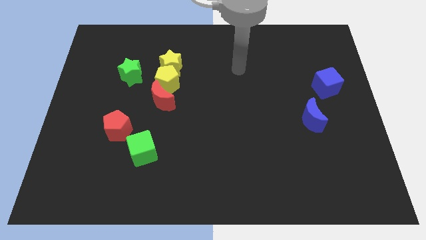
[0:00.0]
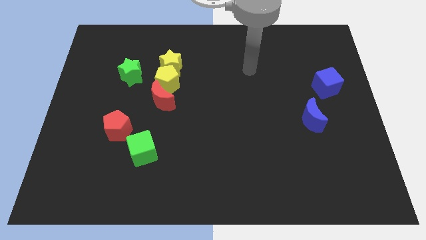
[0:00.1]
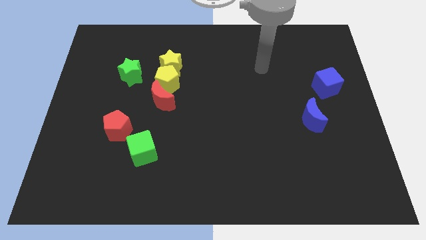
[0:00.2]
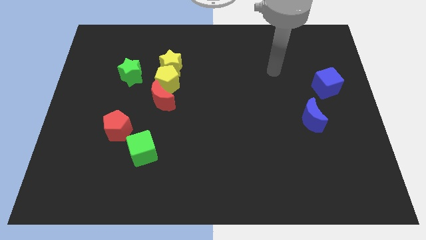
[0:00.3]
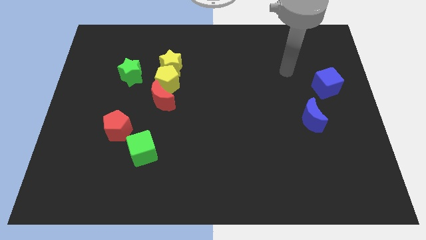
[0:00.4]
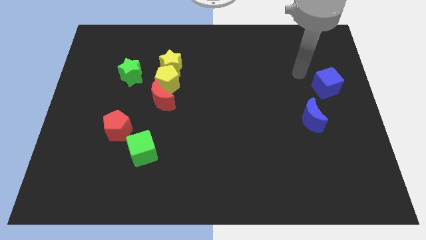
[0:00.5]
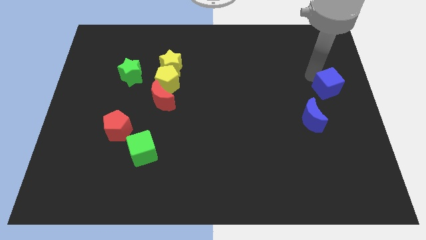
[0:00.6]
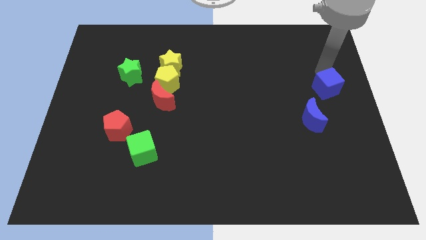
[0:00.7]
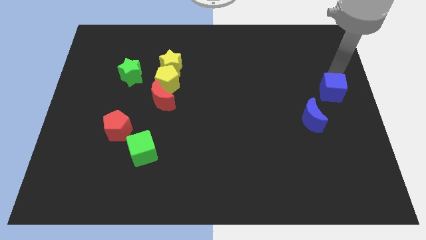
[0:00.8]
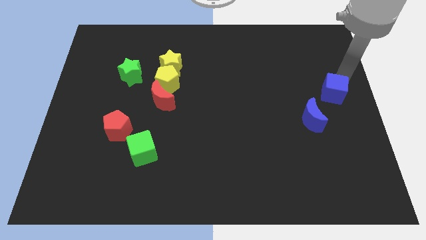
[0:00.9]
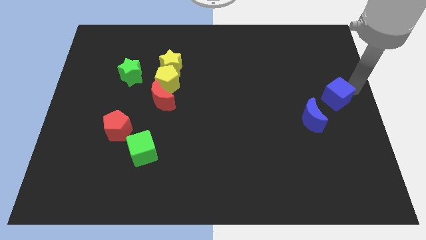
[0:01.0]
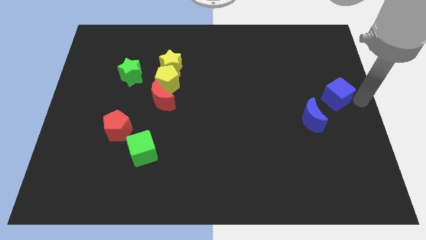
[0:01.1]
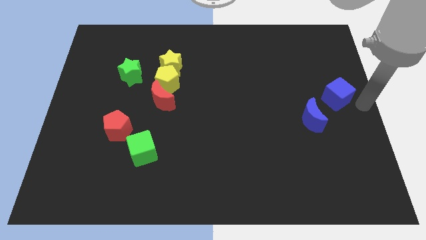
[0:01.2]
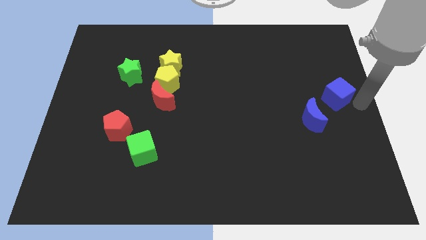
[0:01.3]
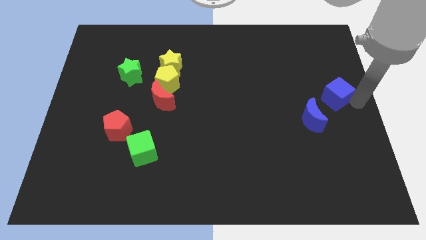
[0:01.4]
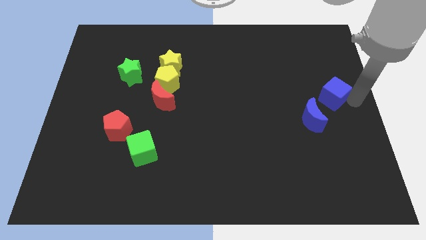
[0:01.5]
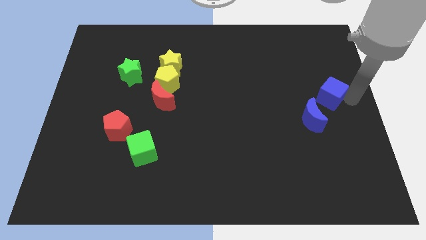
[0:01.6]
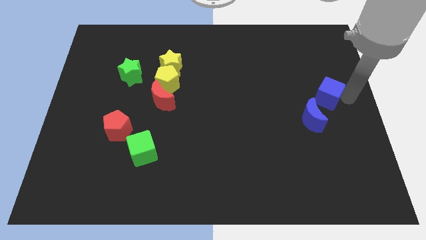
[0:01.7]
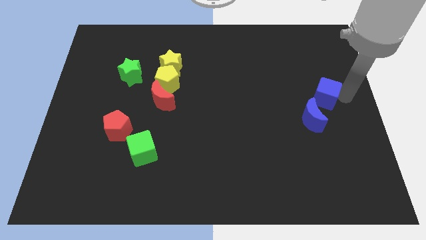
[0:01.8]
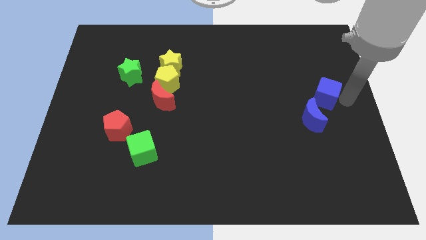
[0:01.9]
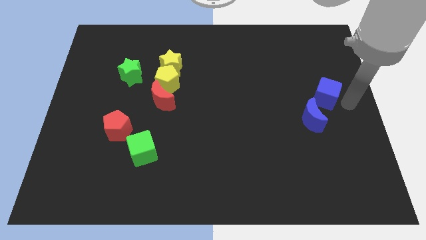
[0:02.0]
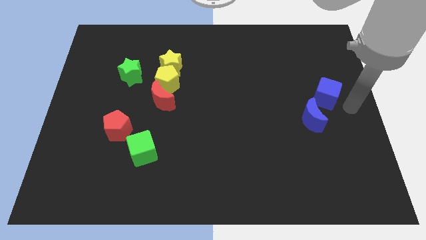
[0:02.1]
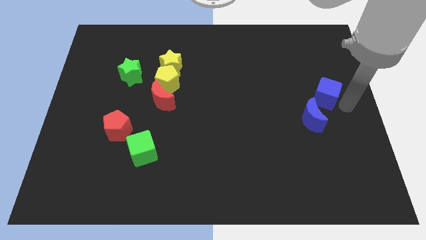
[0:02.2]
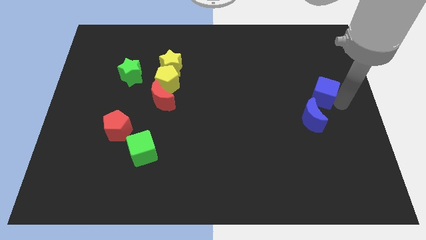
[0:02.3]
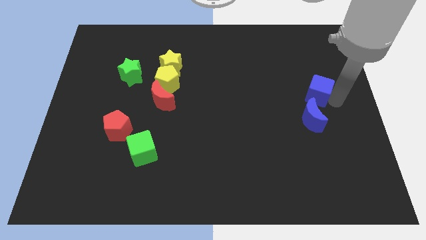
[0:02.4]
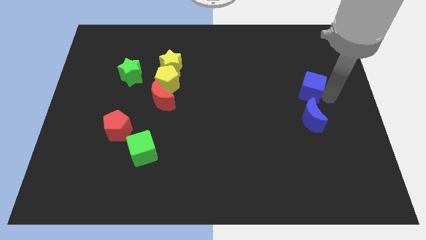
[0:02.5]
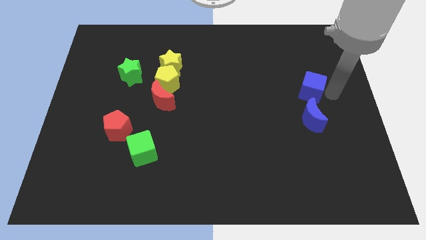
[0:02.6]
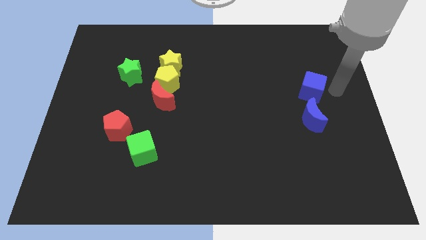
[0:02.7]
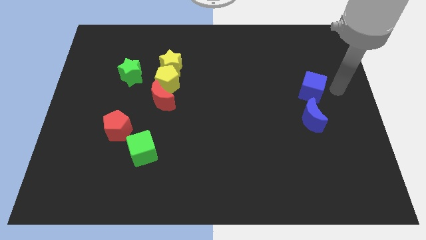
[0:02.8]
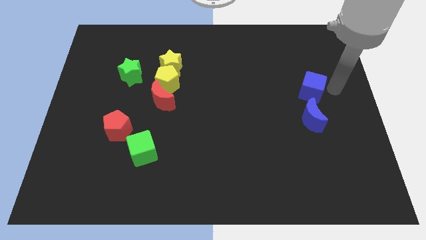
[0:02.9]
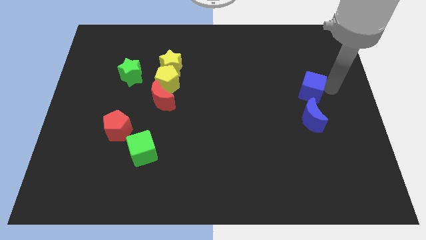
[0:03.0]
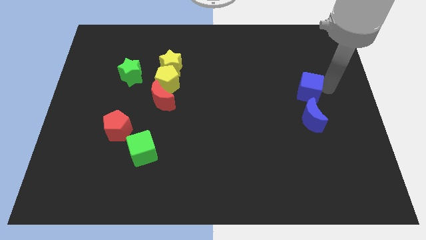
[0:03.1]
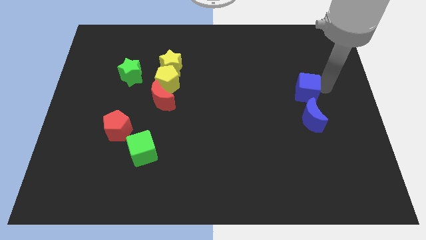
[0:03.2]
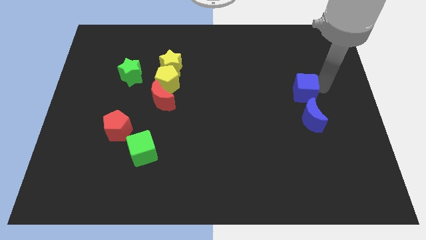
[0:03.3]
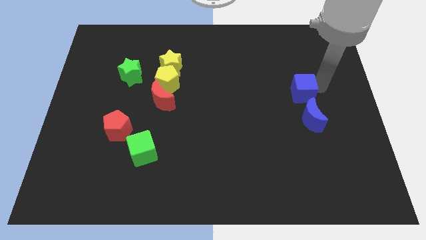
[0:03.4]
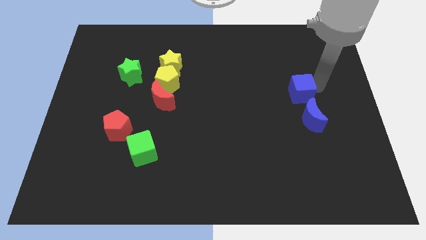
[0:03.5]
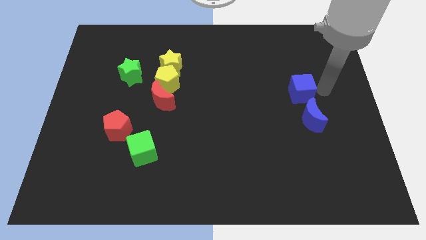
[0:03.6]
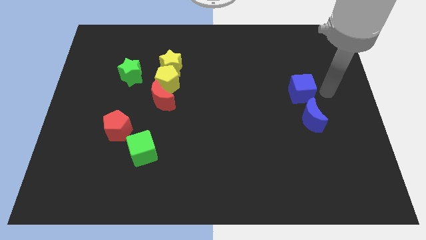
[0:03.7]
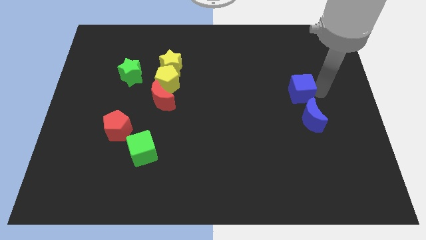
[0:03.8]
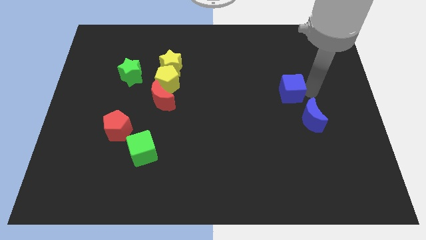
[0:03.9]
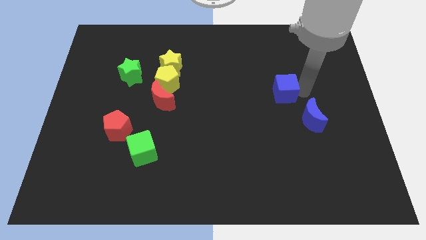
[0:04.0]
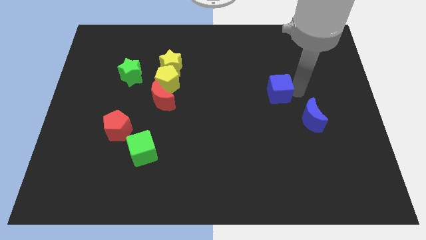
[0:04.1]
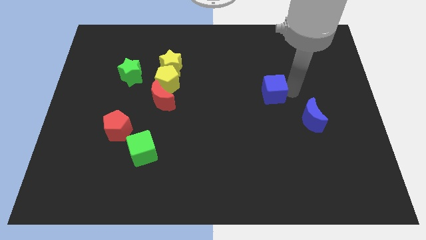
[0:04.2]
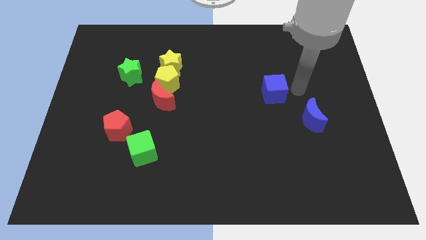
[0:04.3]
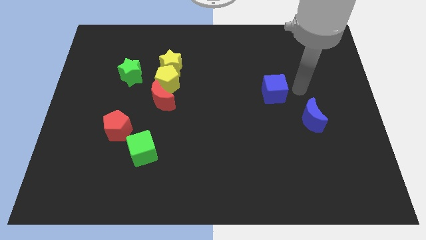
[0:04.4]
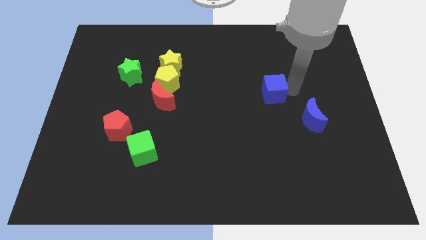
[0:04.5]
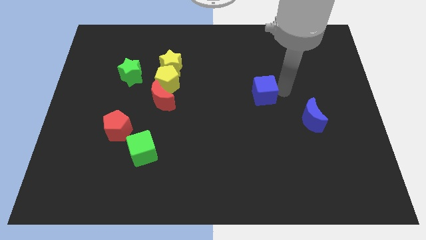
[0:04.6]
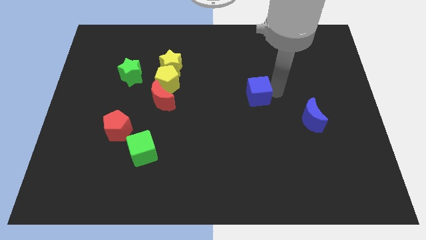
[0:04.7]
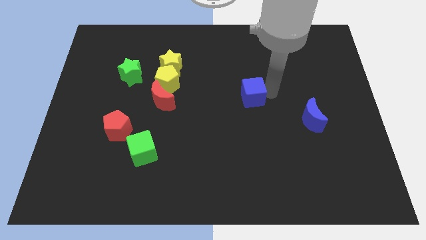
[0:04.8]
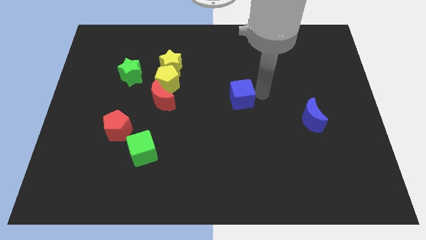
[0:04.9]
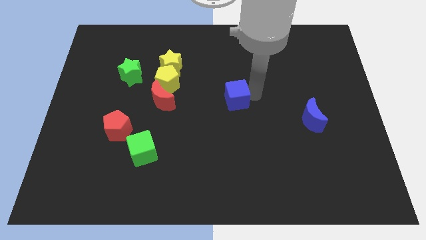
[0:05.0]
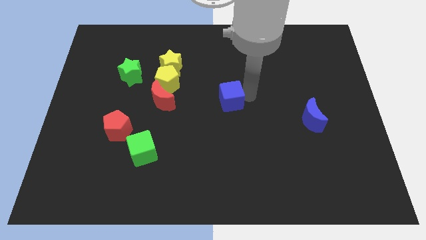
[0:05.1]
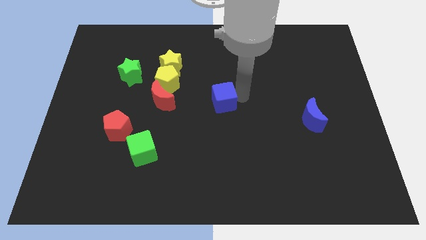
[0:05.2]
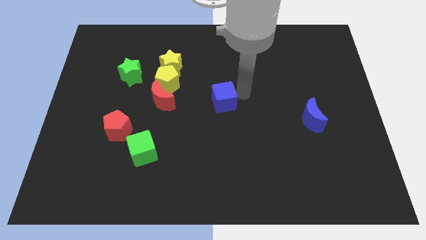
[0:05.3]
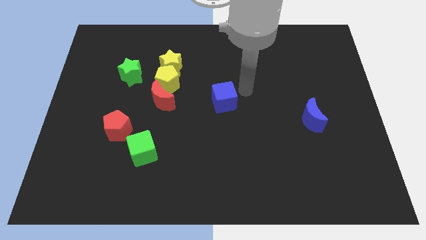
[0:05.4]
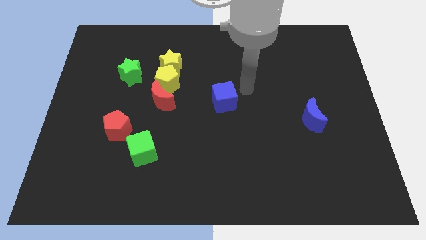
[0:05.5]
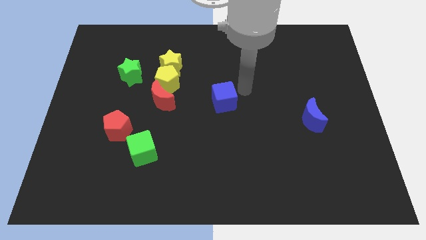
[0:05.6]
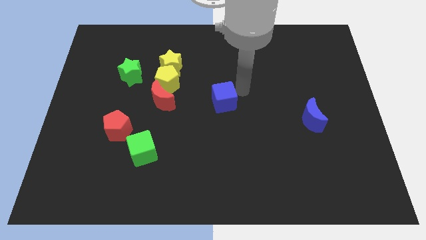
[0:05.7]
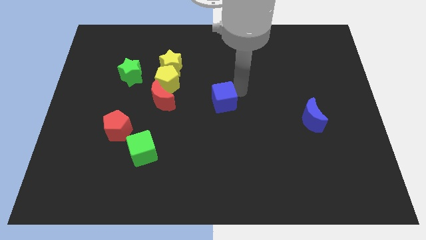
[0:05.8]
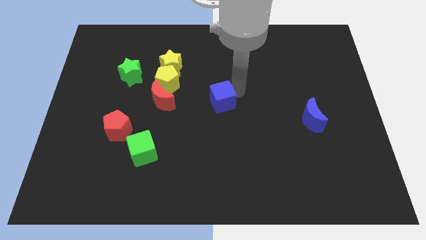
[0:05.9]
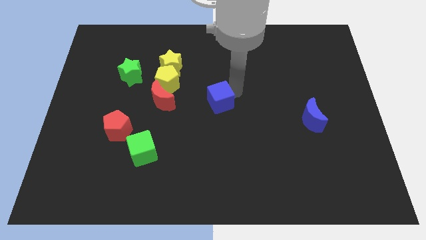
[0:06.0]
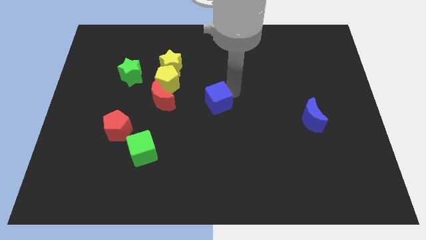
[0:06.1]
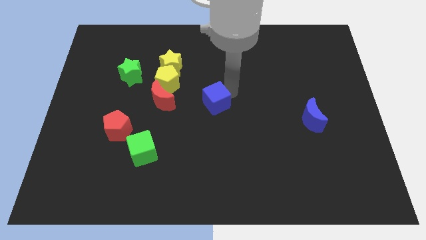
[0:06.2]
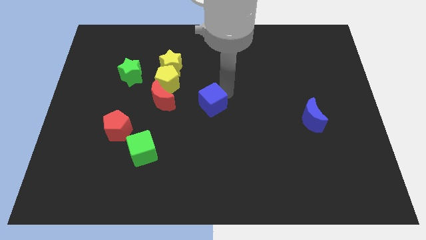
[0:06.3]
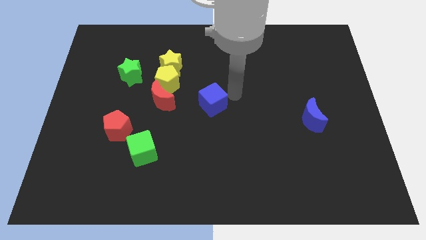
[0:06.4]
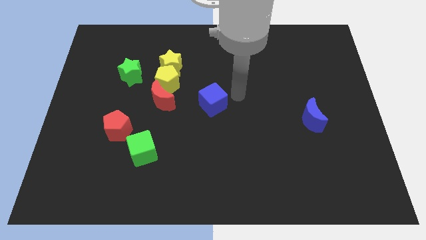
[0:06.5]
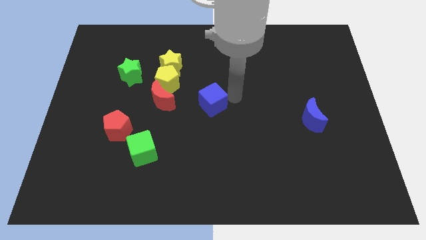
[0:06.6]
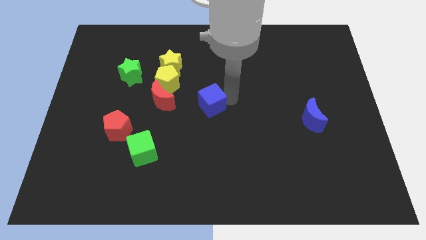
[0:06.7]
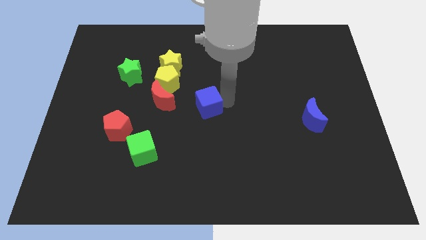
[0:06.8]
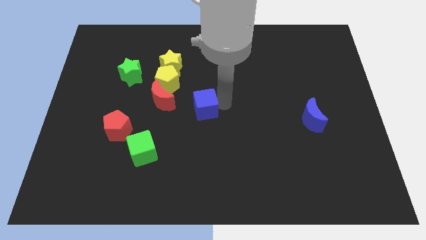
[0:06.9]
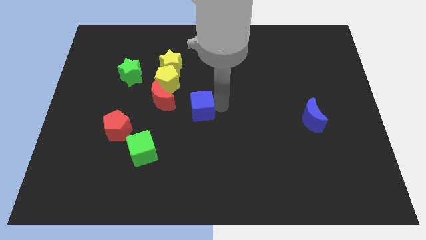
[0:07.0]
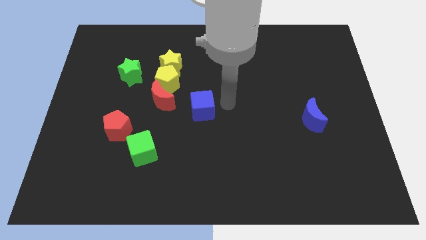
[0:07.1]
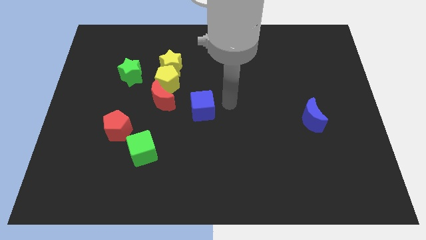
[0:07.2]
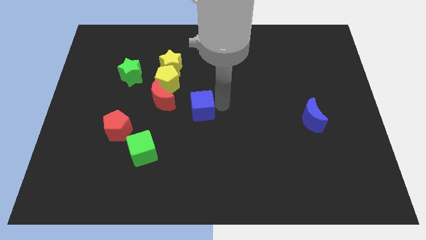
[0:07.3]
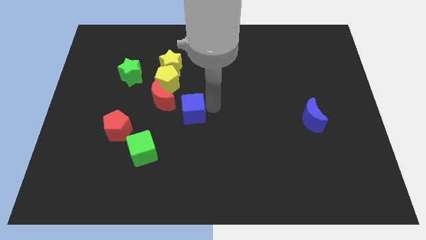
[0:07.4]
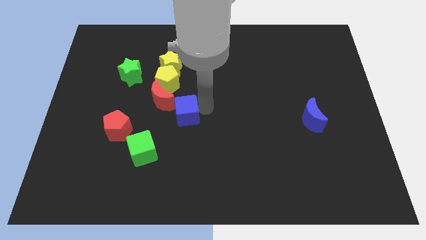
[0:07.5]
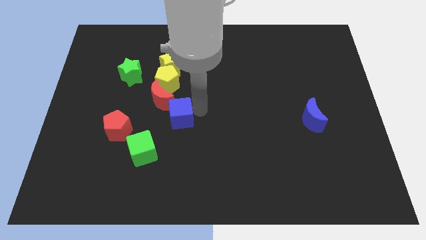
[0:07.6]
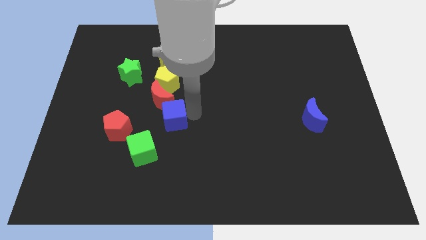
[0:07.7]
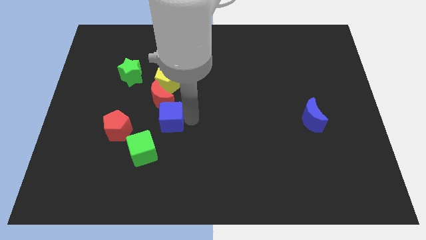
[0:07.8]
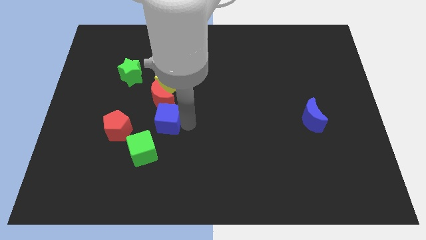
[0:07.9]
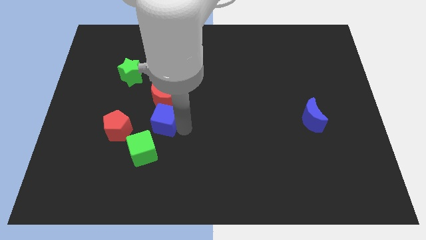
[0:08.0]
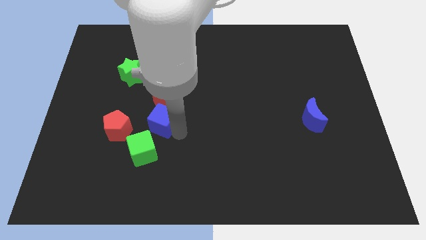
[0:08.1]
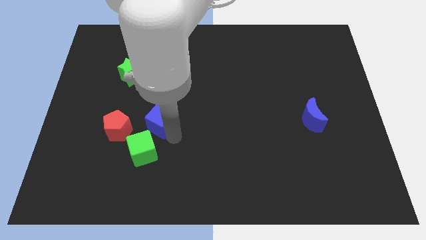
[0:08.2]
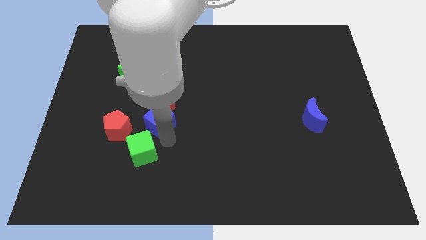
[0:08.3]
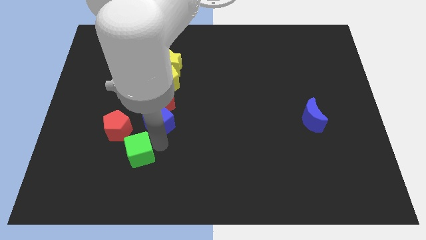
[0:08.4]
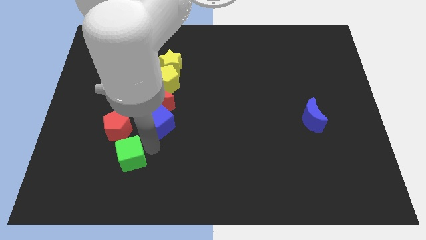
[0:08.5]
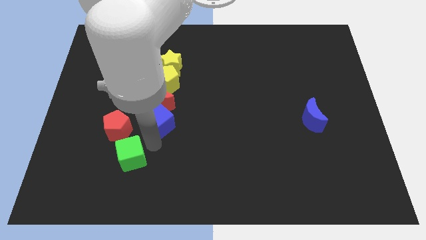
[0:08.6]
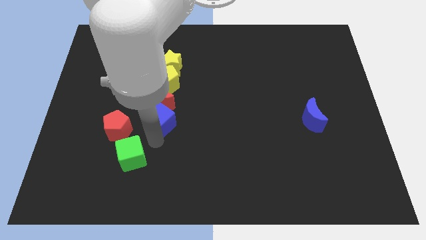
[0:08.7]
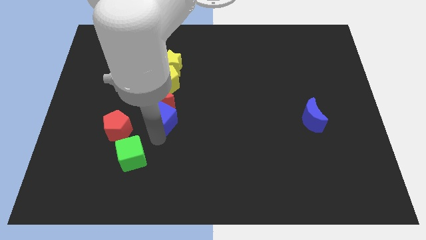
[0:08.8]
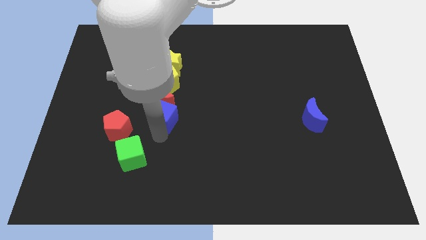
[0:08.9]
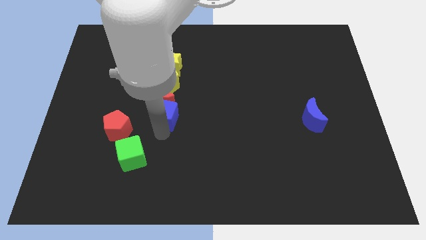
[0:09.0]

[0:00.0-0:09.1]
move the blue cube to the bottom side of the yellow star
